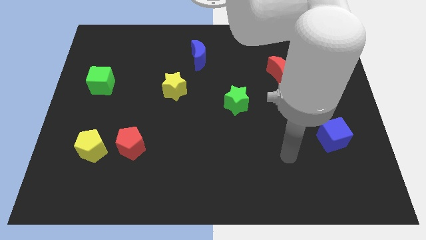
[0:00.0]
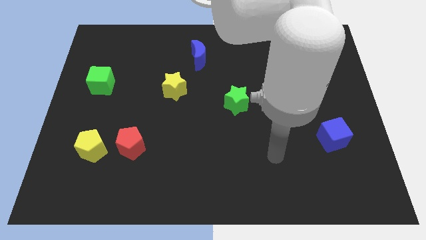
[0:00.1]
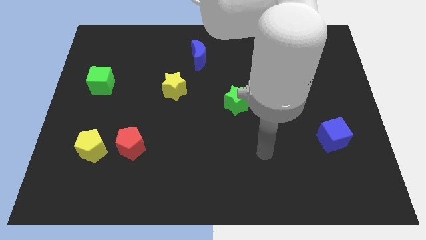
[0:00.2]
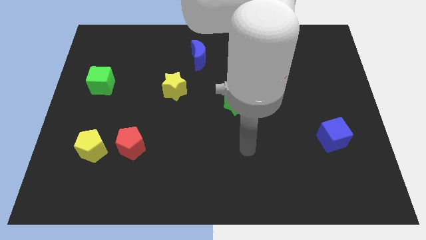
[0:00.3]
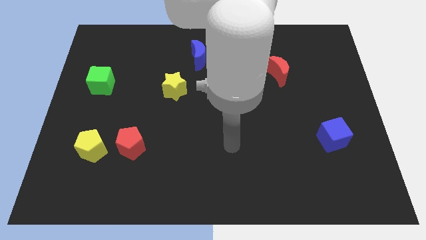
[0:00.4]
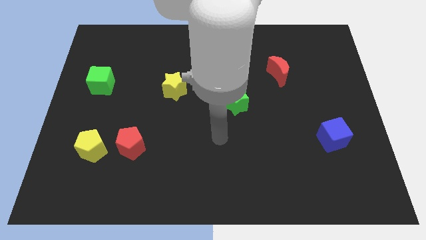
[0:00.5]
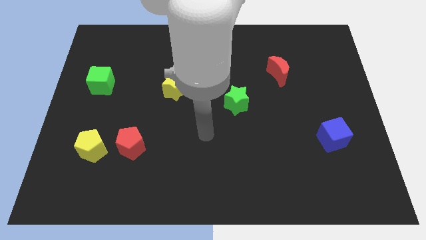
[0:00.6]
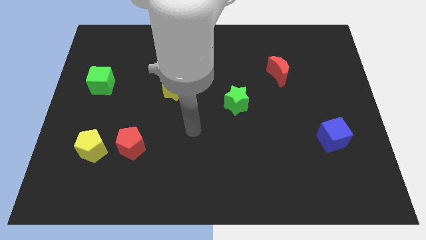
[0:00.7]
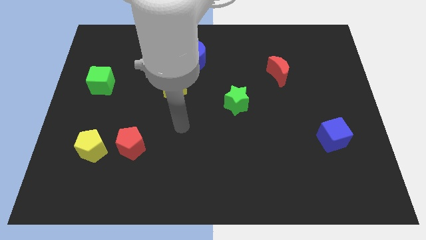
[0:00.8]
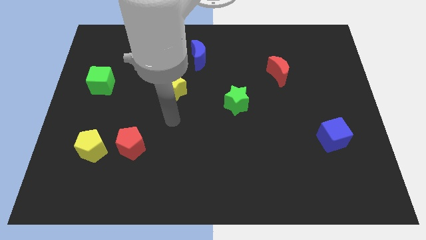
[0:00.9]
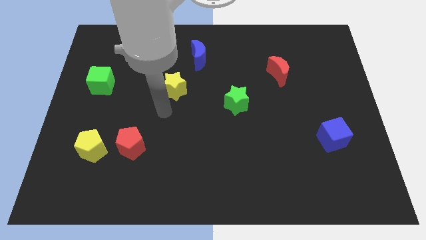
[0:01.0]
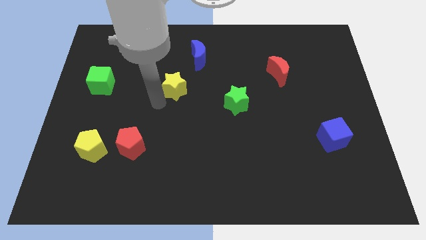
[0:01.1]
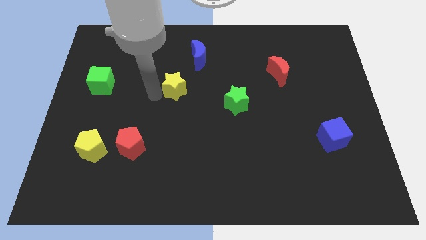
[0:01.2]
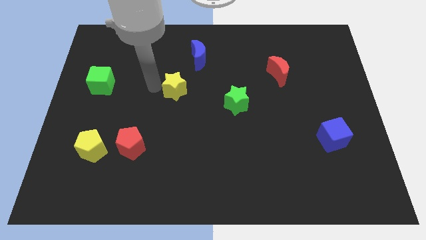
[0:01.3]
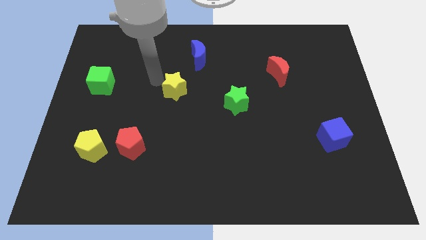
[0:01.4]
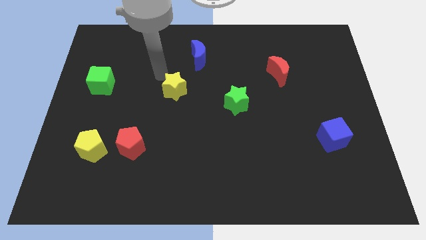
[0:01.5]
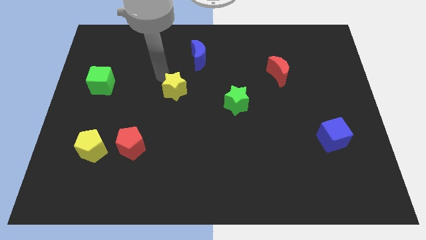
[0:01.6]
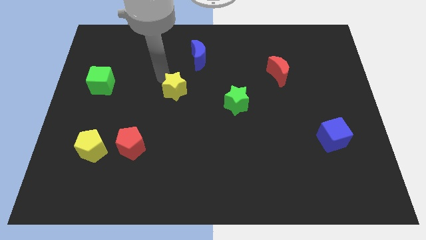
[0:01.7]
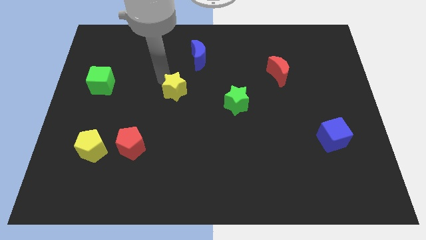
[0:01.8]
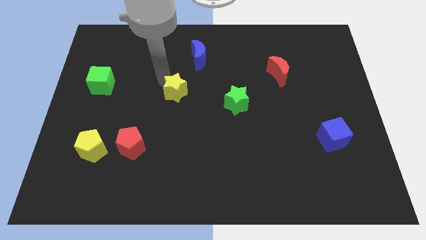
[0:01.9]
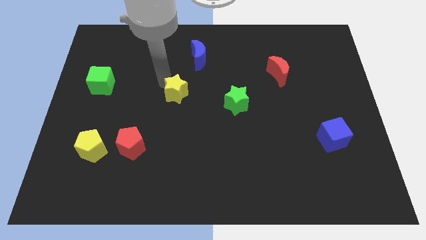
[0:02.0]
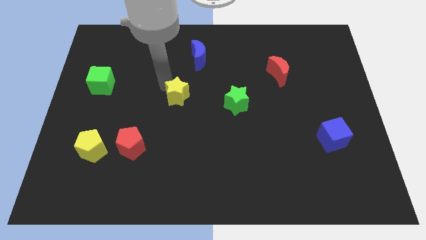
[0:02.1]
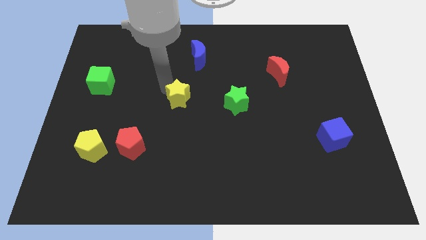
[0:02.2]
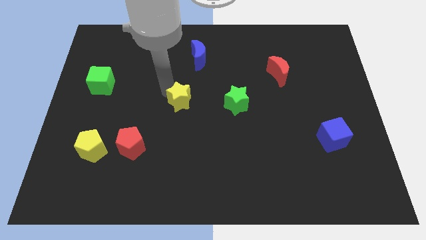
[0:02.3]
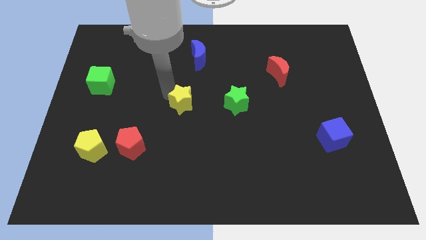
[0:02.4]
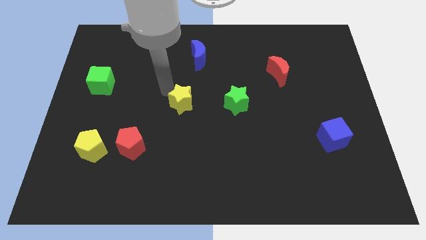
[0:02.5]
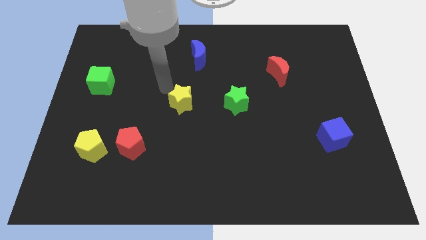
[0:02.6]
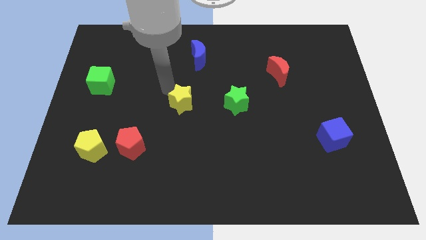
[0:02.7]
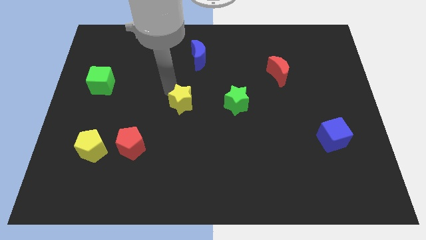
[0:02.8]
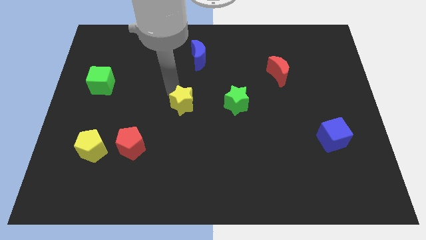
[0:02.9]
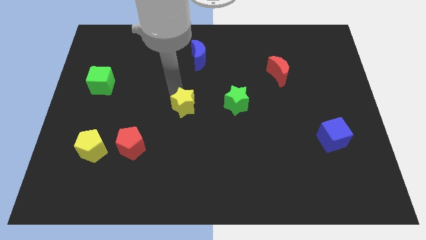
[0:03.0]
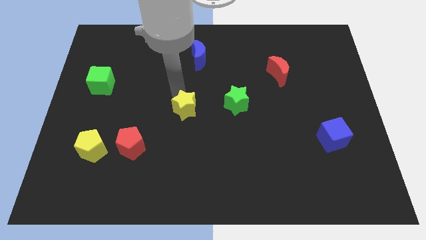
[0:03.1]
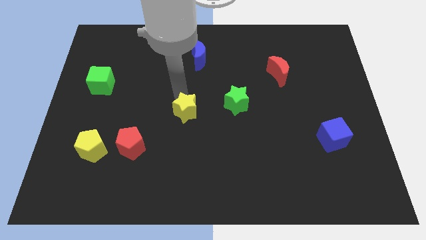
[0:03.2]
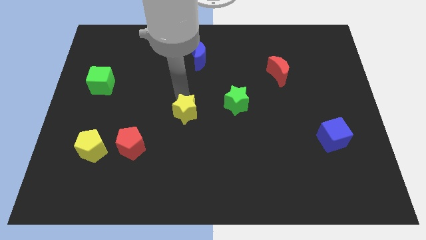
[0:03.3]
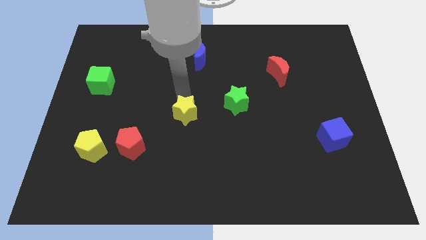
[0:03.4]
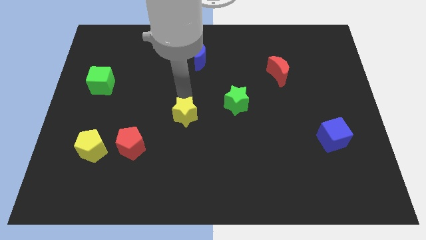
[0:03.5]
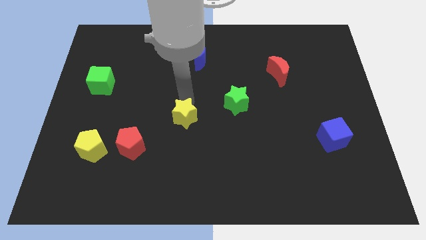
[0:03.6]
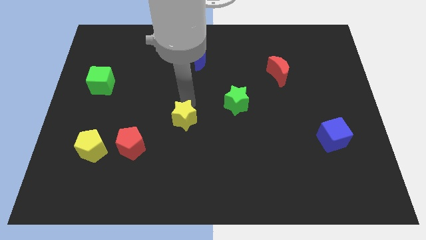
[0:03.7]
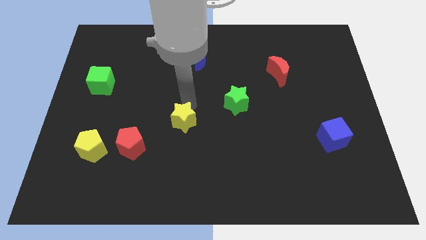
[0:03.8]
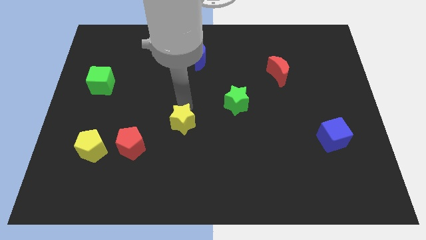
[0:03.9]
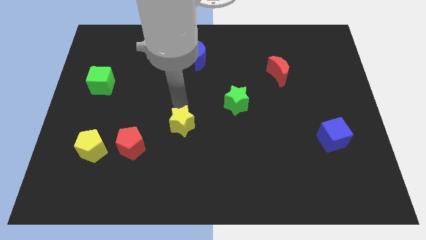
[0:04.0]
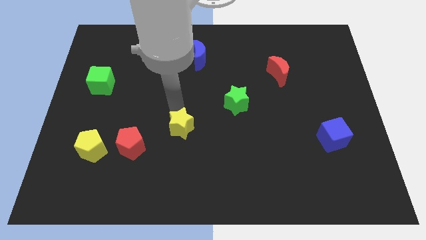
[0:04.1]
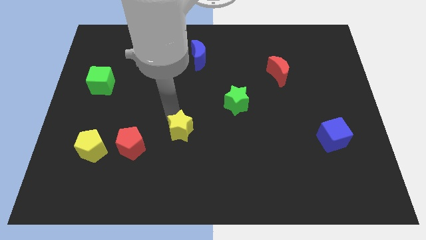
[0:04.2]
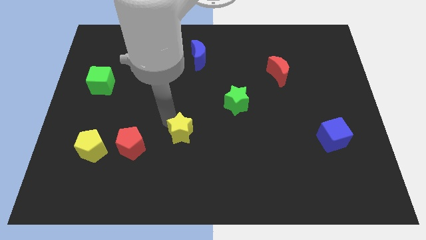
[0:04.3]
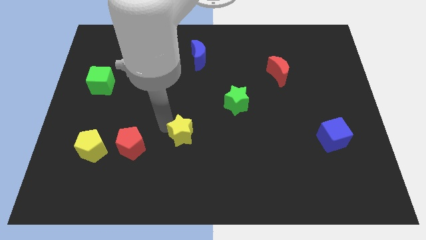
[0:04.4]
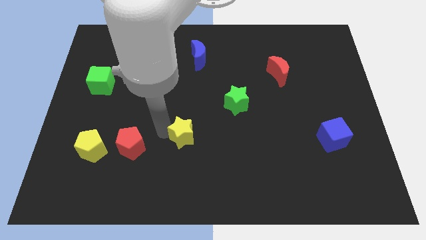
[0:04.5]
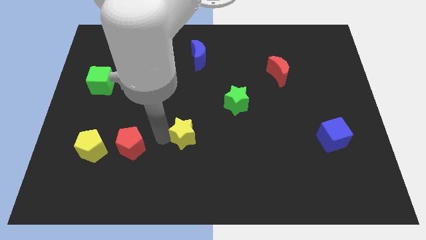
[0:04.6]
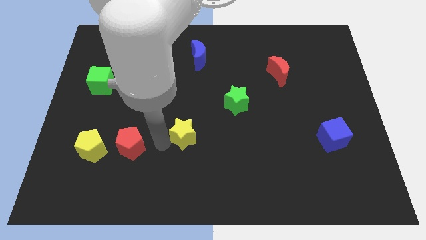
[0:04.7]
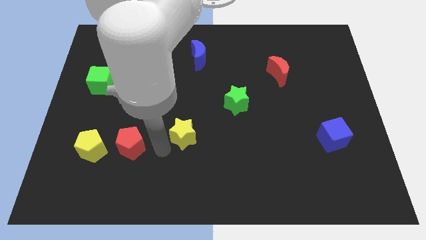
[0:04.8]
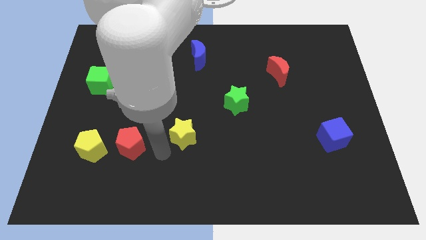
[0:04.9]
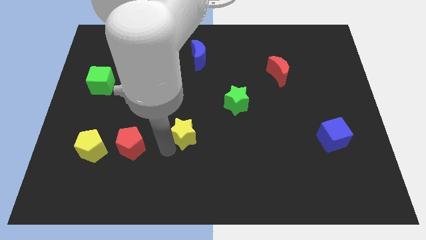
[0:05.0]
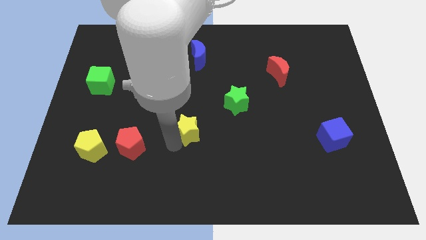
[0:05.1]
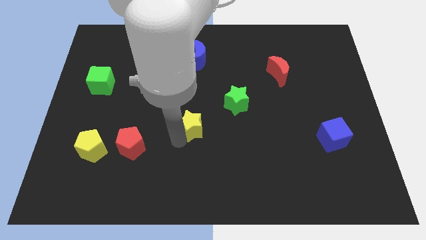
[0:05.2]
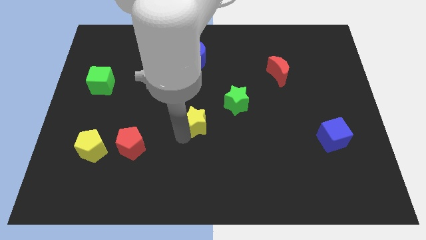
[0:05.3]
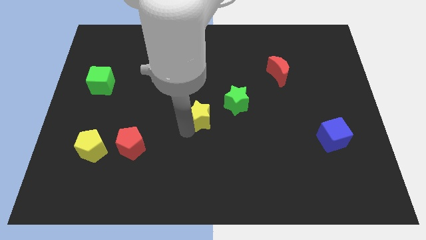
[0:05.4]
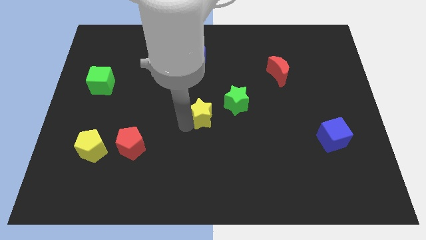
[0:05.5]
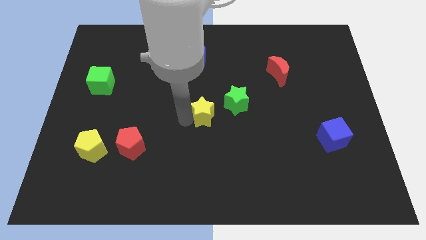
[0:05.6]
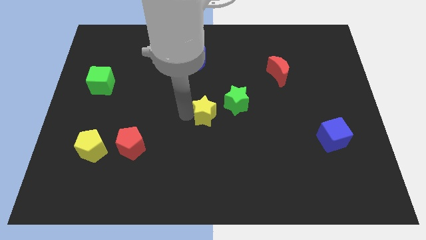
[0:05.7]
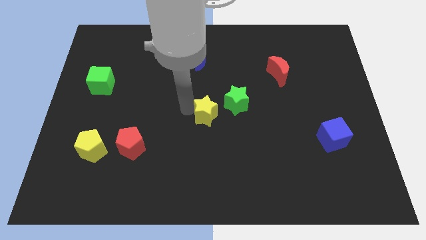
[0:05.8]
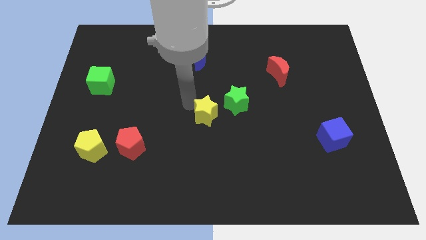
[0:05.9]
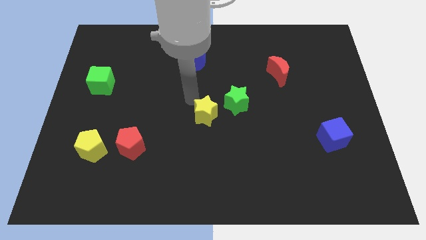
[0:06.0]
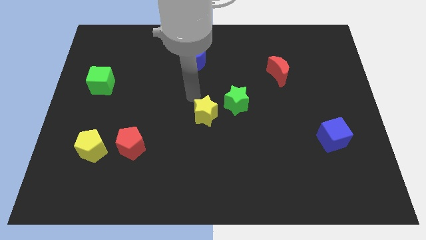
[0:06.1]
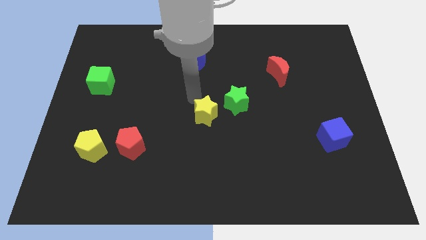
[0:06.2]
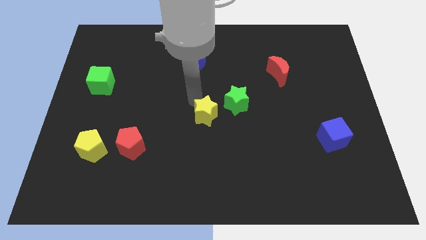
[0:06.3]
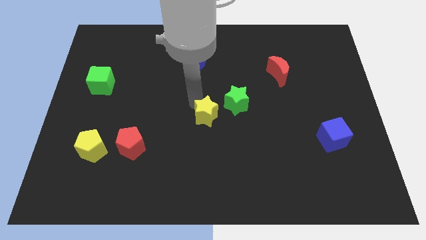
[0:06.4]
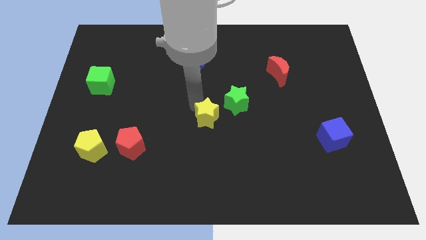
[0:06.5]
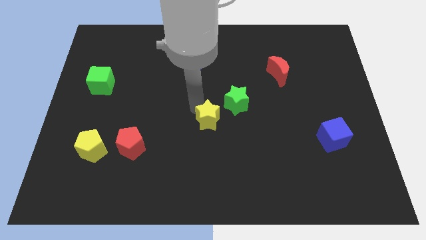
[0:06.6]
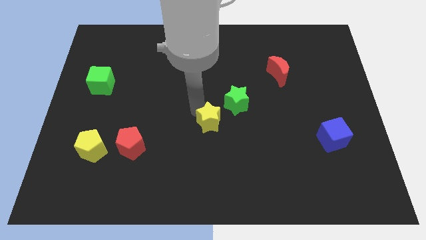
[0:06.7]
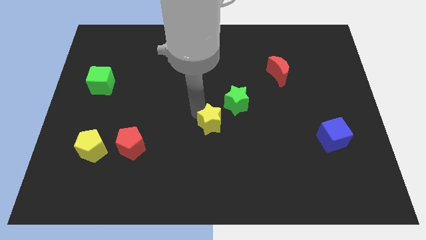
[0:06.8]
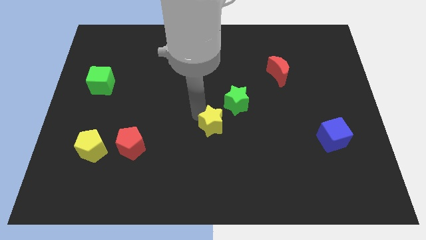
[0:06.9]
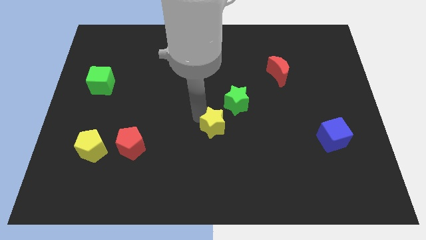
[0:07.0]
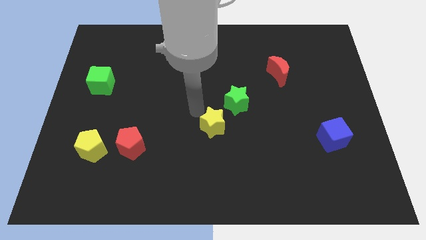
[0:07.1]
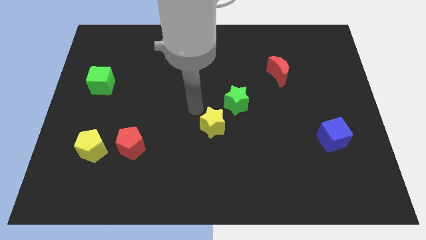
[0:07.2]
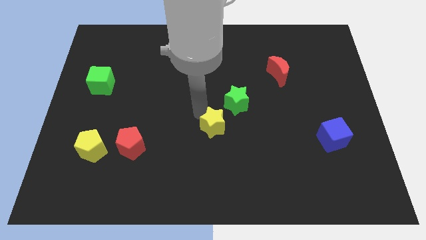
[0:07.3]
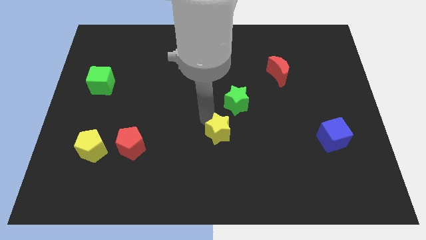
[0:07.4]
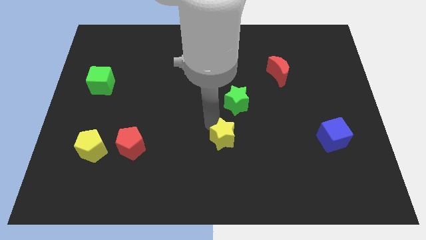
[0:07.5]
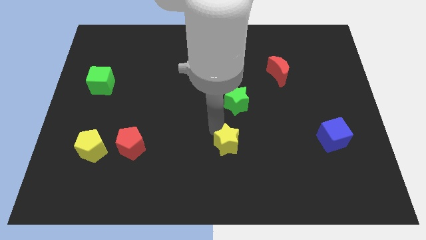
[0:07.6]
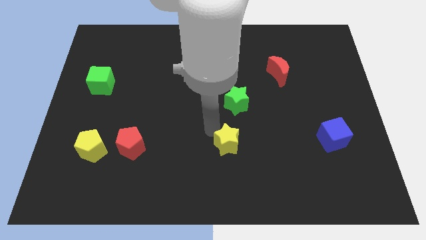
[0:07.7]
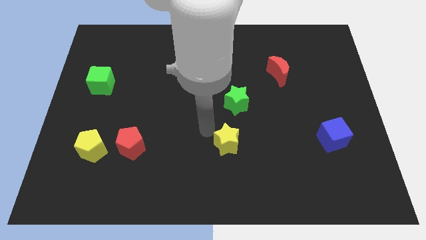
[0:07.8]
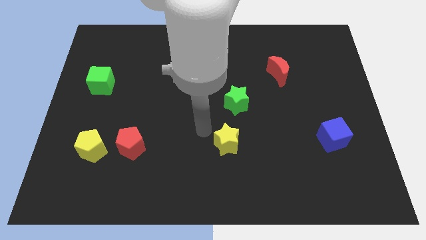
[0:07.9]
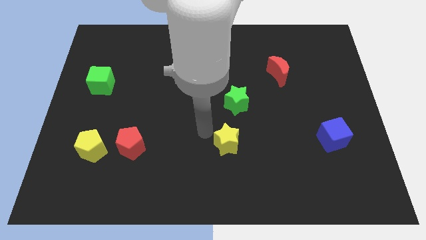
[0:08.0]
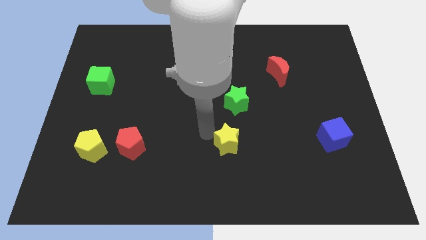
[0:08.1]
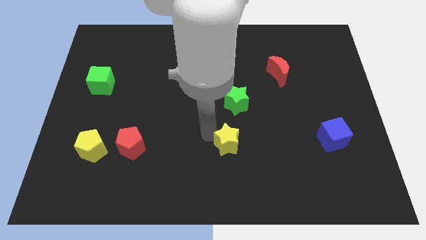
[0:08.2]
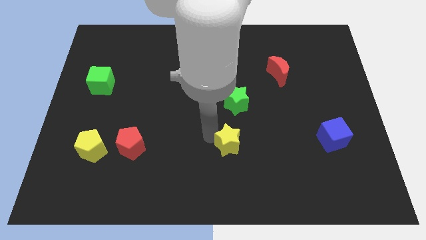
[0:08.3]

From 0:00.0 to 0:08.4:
slide the yellow star down and then right
